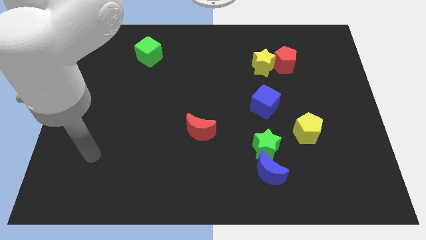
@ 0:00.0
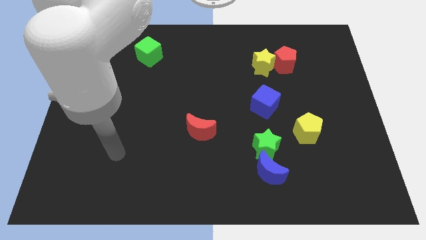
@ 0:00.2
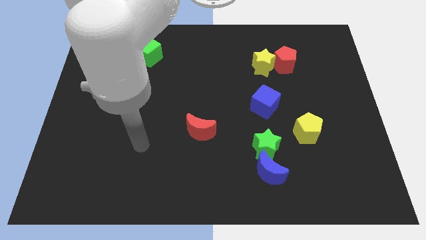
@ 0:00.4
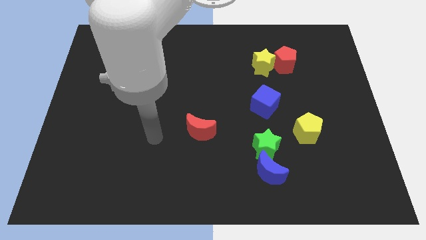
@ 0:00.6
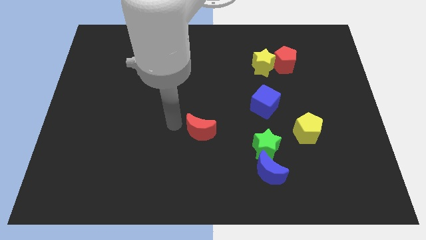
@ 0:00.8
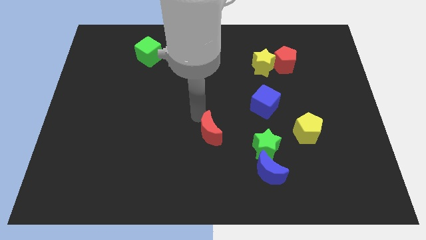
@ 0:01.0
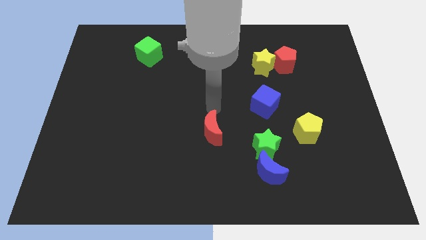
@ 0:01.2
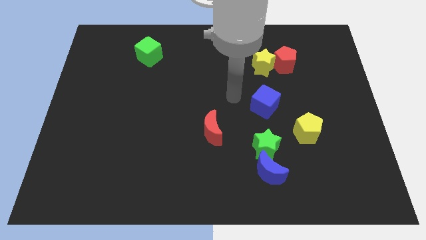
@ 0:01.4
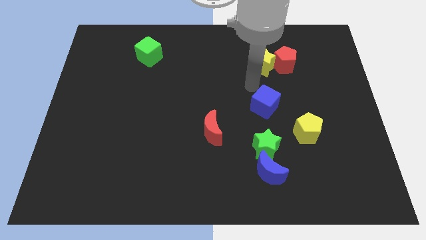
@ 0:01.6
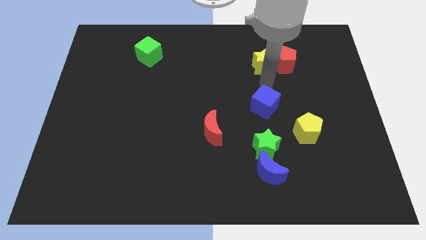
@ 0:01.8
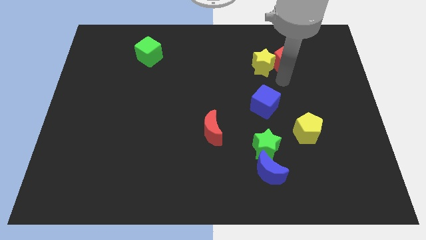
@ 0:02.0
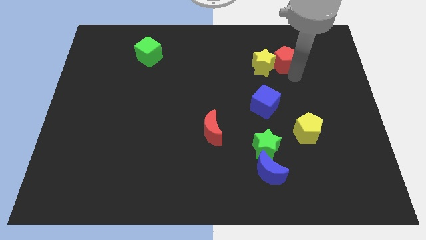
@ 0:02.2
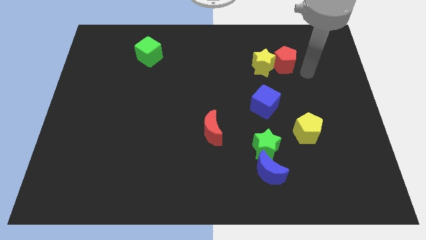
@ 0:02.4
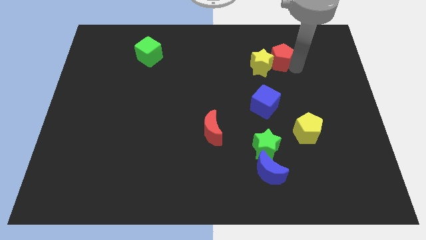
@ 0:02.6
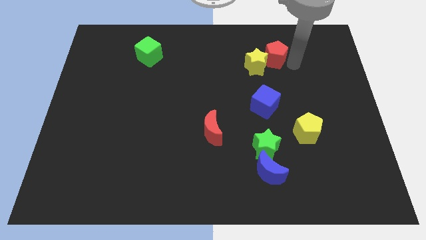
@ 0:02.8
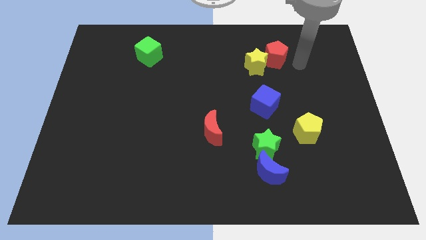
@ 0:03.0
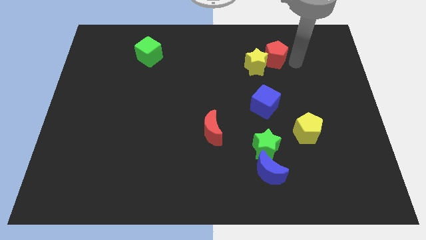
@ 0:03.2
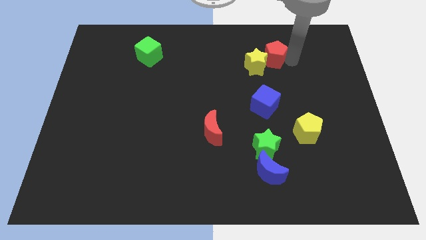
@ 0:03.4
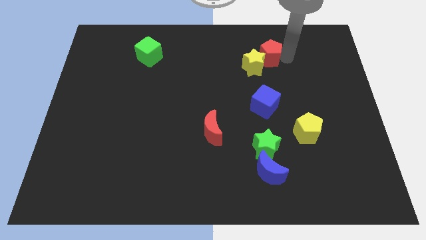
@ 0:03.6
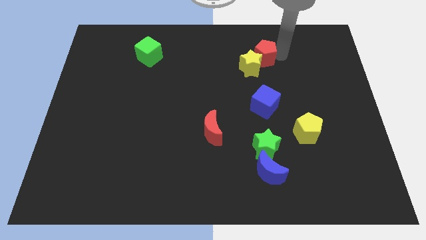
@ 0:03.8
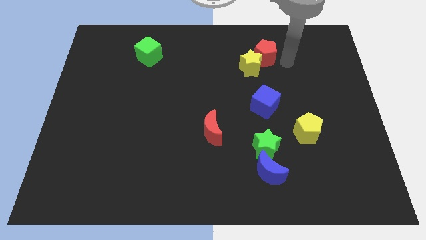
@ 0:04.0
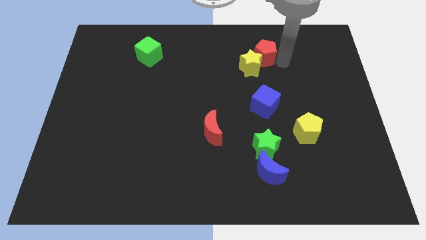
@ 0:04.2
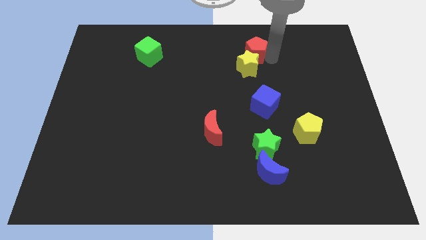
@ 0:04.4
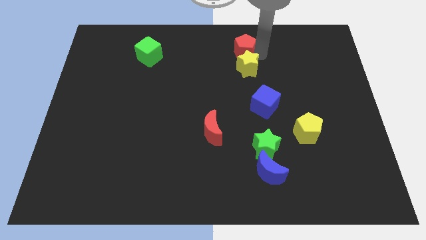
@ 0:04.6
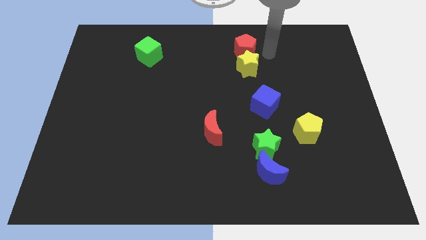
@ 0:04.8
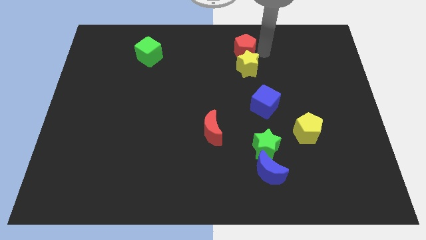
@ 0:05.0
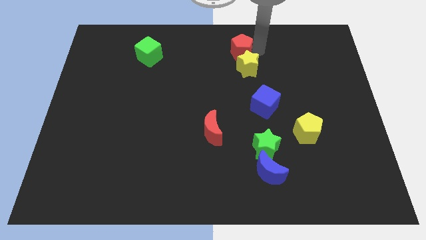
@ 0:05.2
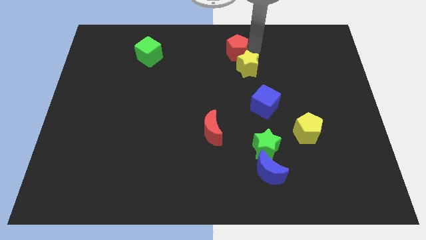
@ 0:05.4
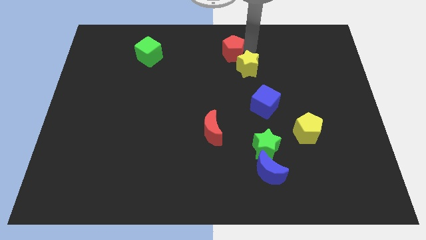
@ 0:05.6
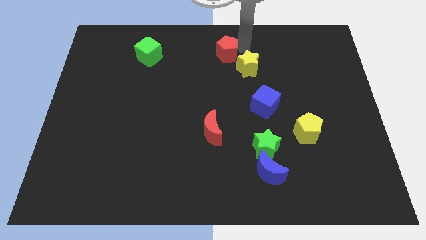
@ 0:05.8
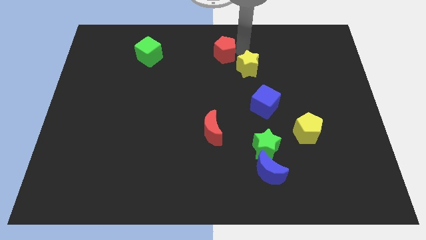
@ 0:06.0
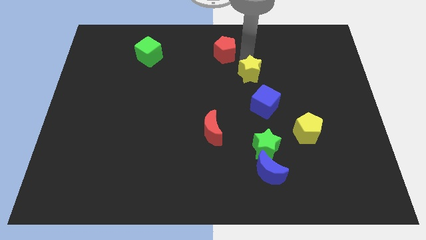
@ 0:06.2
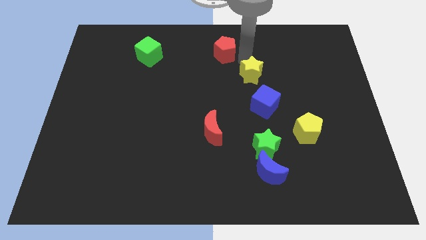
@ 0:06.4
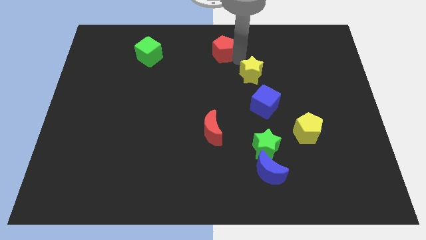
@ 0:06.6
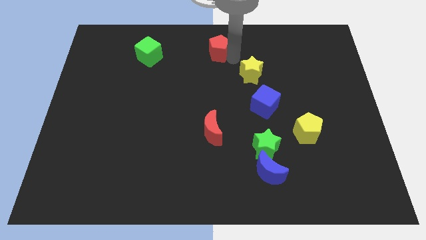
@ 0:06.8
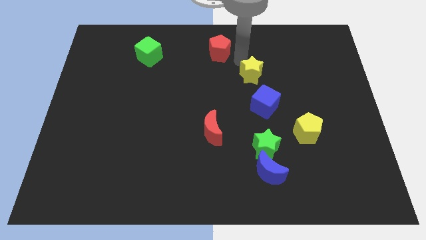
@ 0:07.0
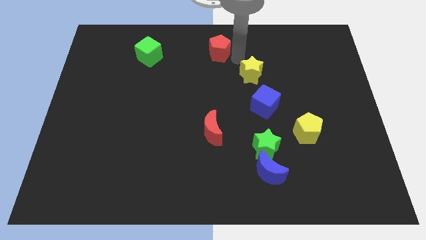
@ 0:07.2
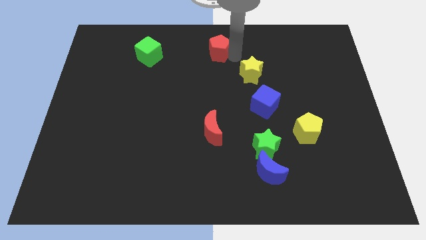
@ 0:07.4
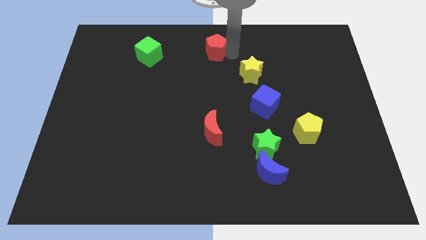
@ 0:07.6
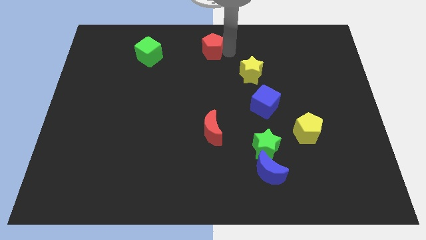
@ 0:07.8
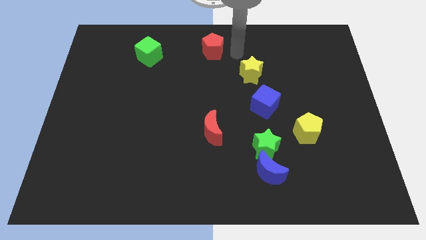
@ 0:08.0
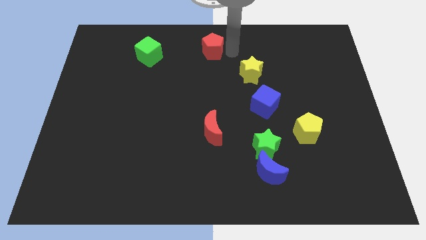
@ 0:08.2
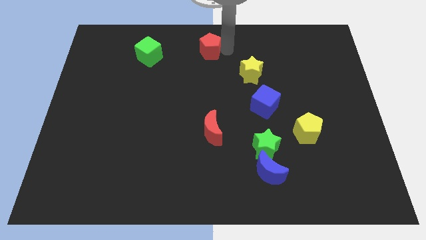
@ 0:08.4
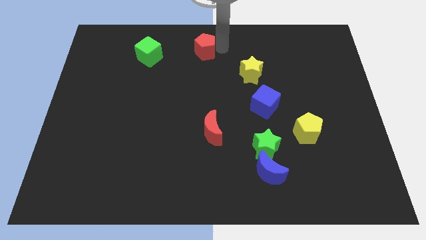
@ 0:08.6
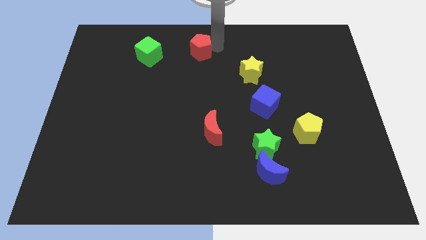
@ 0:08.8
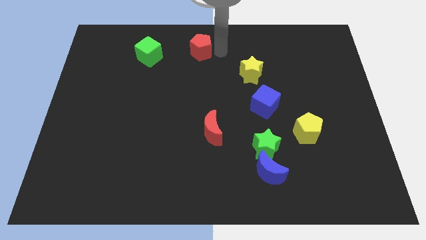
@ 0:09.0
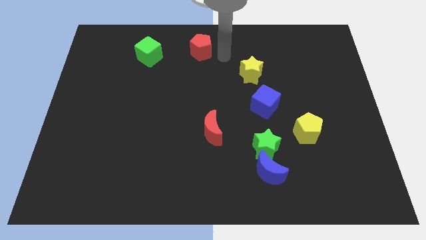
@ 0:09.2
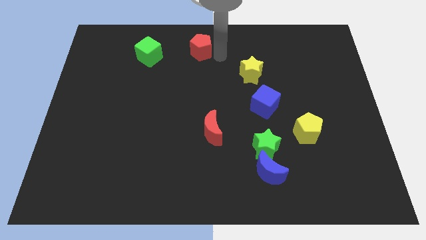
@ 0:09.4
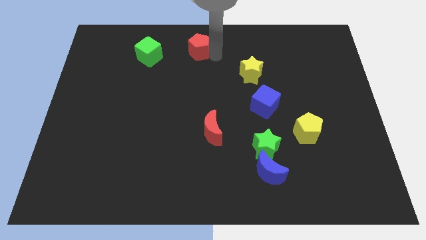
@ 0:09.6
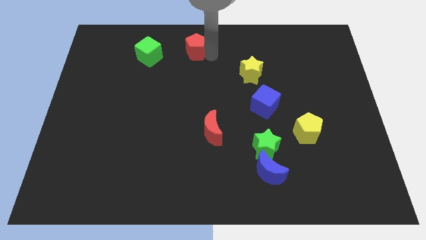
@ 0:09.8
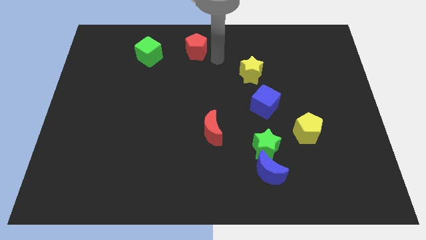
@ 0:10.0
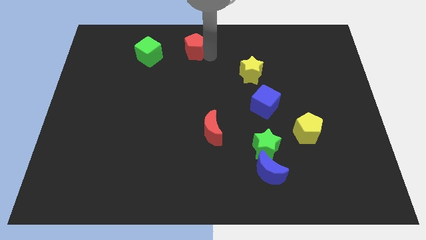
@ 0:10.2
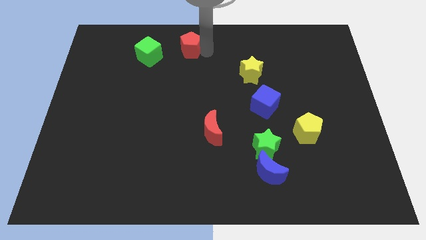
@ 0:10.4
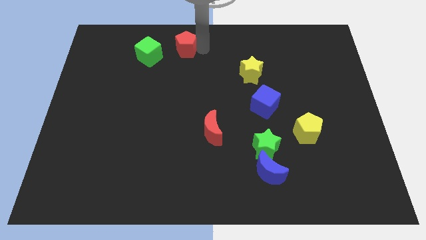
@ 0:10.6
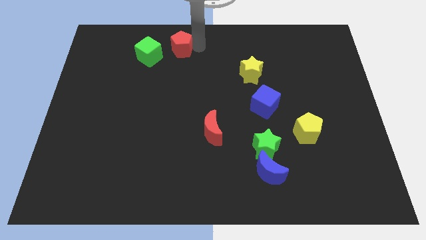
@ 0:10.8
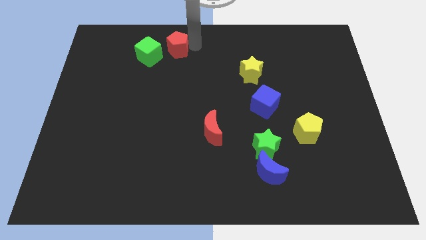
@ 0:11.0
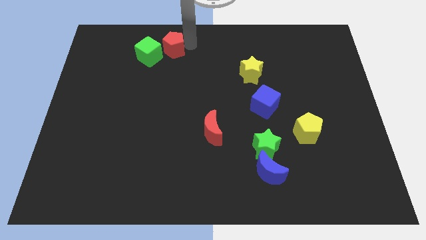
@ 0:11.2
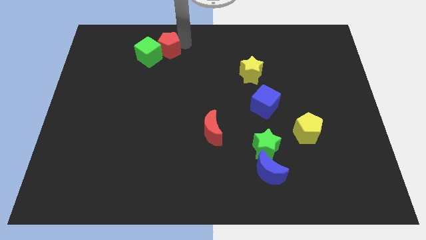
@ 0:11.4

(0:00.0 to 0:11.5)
push the red pentagon close to the green cube

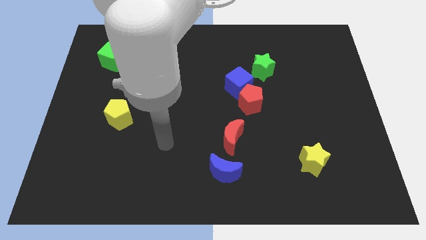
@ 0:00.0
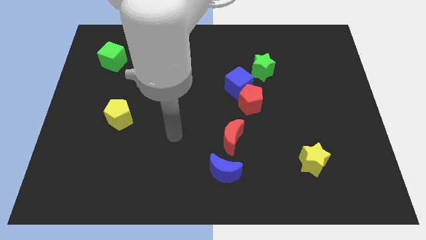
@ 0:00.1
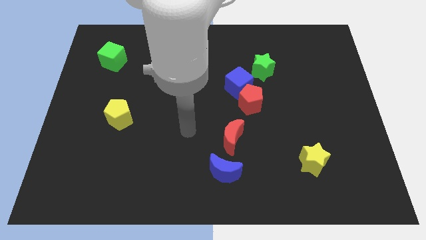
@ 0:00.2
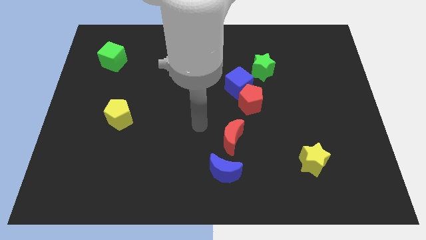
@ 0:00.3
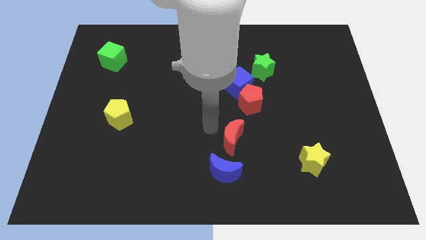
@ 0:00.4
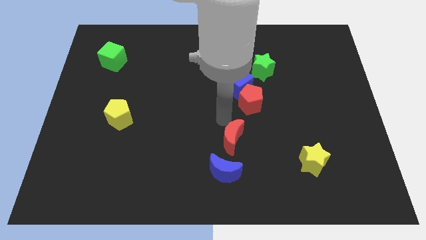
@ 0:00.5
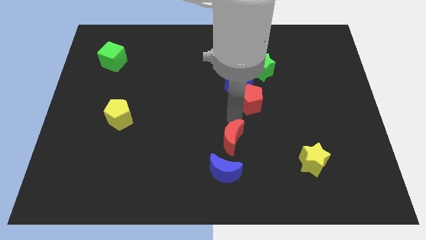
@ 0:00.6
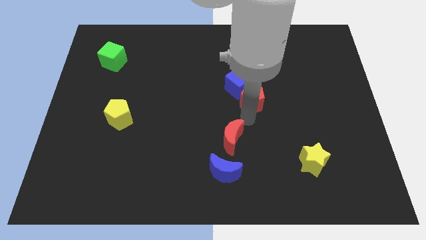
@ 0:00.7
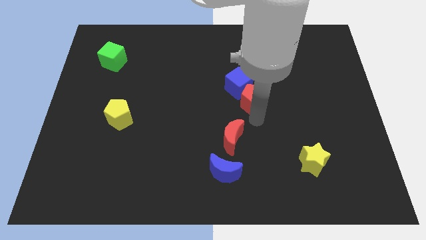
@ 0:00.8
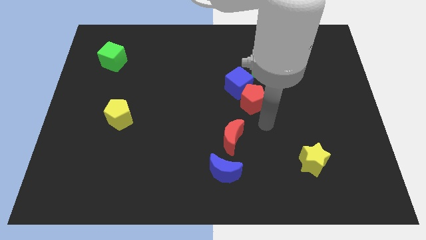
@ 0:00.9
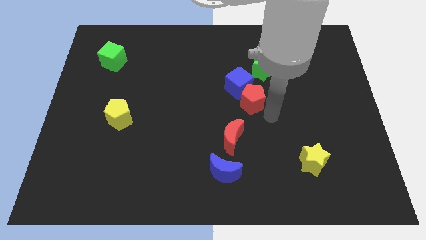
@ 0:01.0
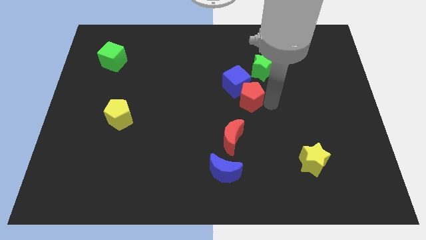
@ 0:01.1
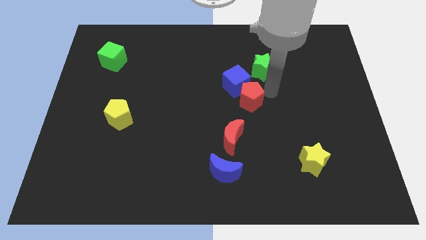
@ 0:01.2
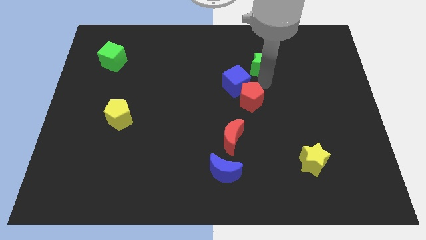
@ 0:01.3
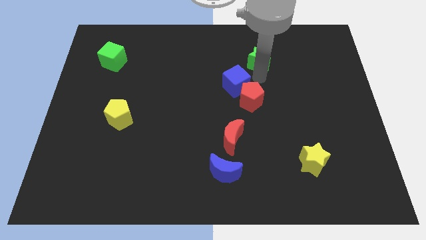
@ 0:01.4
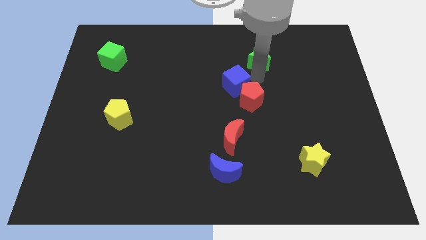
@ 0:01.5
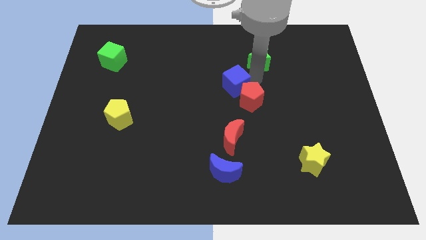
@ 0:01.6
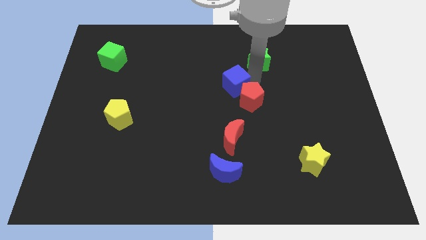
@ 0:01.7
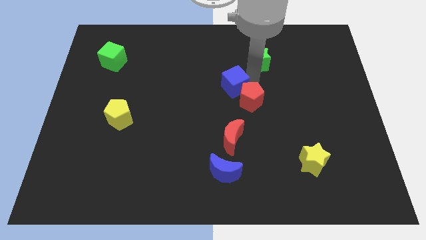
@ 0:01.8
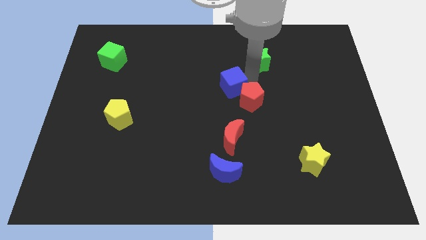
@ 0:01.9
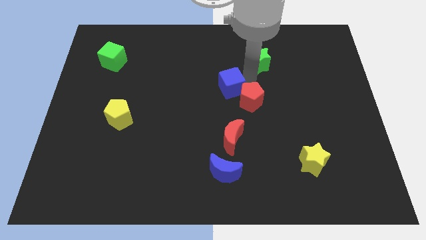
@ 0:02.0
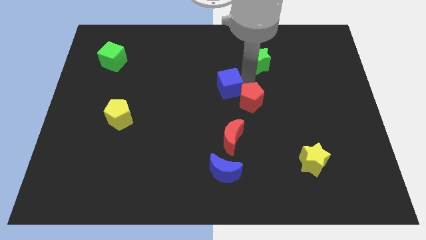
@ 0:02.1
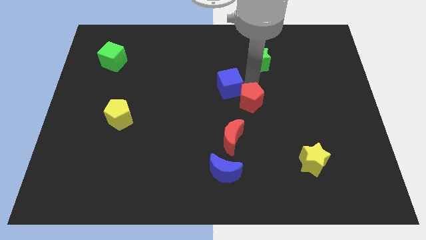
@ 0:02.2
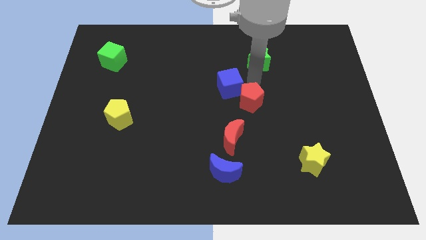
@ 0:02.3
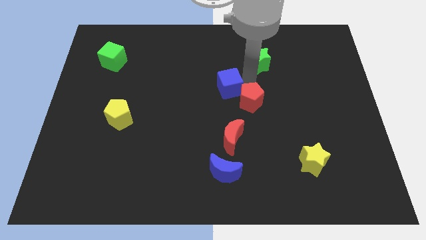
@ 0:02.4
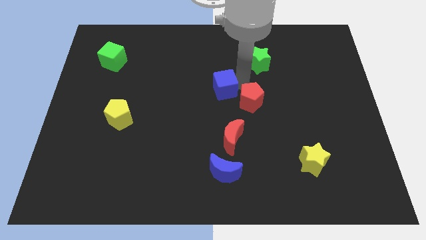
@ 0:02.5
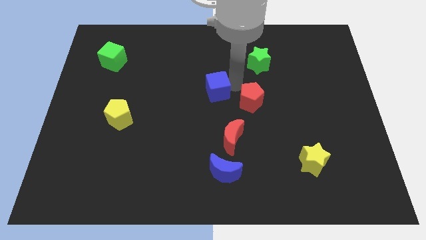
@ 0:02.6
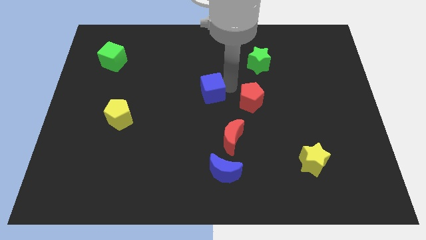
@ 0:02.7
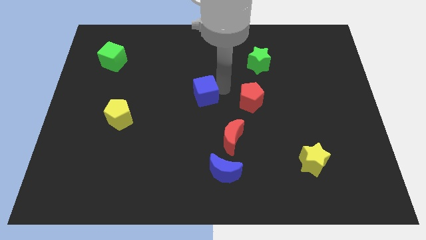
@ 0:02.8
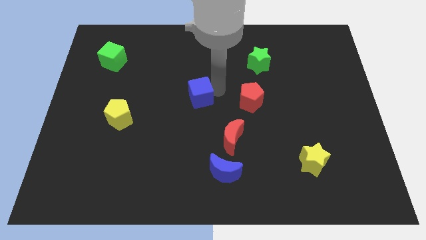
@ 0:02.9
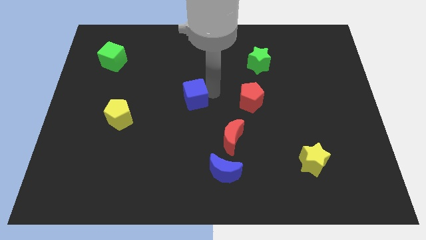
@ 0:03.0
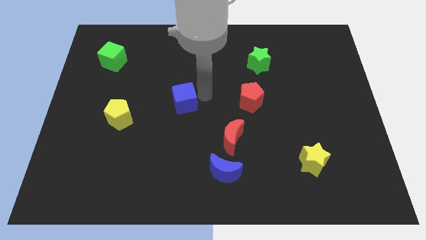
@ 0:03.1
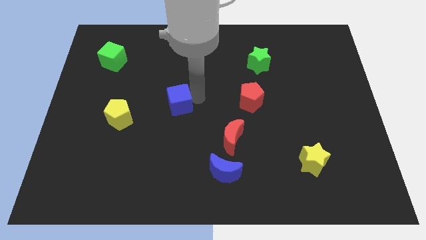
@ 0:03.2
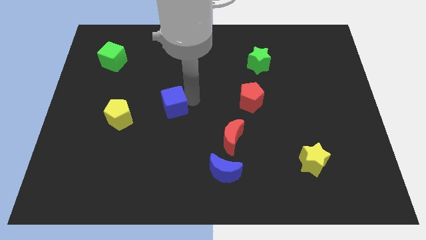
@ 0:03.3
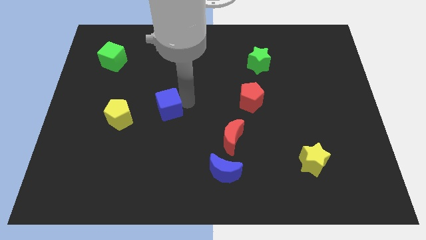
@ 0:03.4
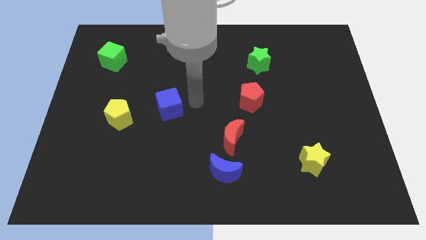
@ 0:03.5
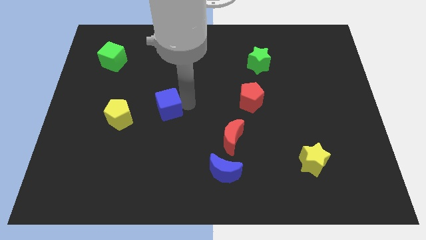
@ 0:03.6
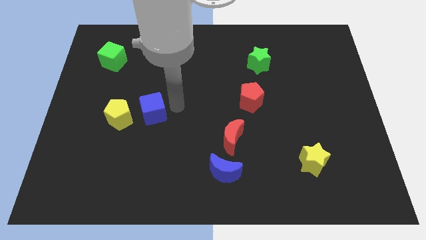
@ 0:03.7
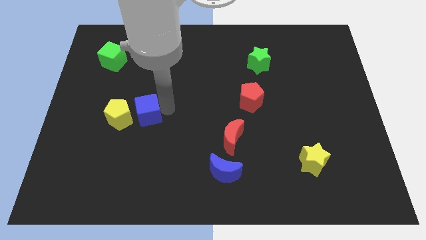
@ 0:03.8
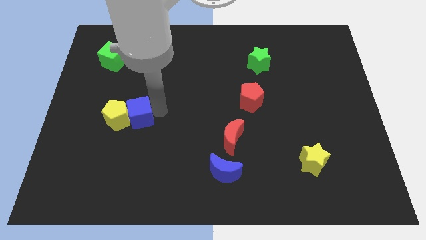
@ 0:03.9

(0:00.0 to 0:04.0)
move the blue cube next to the yellow pentagon
